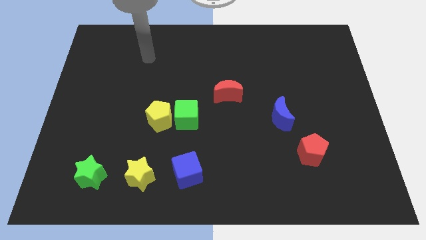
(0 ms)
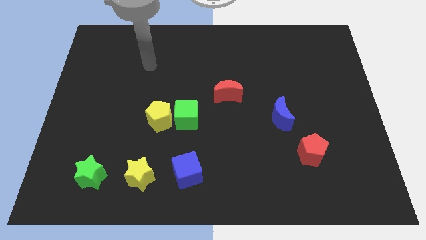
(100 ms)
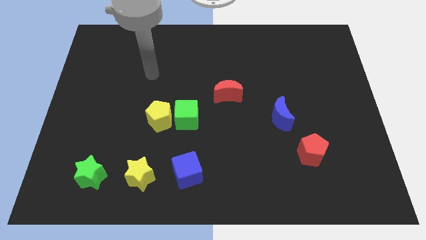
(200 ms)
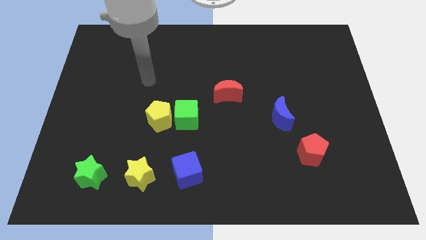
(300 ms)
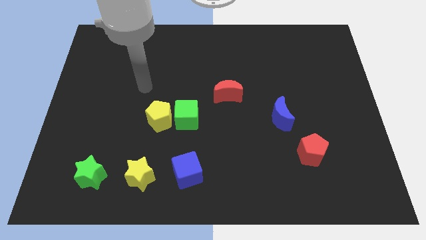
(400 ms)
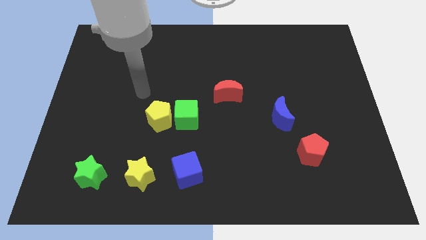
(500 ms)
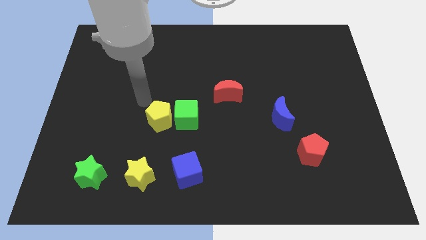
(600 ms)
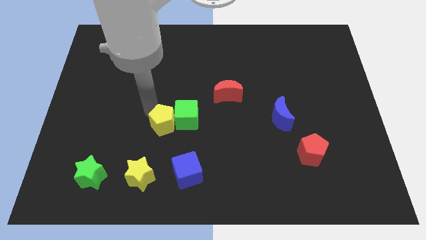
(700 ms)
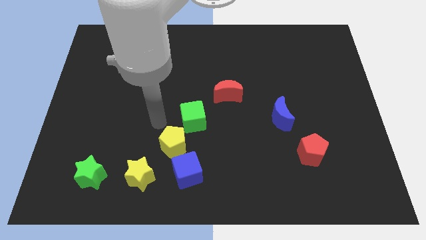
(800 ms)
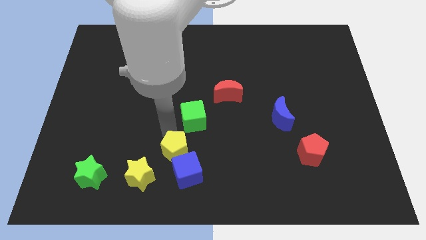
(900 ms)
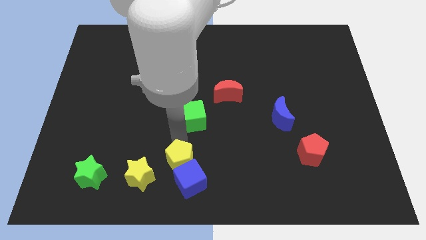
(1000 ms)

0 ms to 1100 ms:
move the green cube away from the yellow pentagon

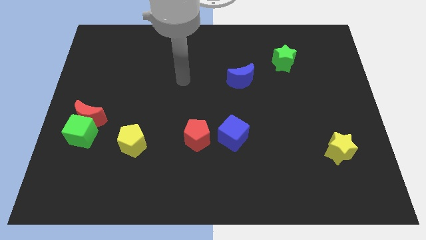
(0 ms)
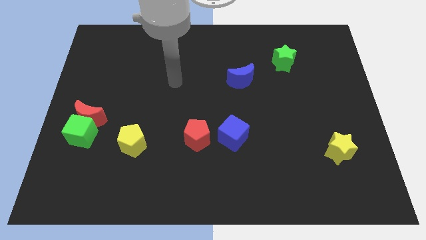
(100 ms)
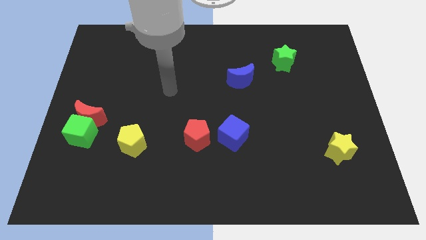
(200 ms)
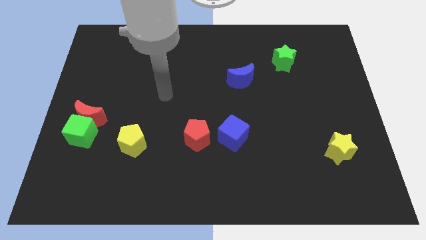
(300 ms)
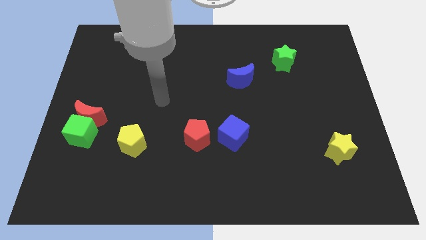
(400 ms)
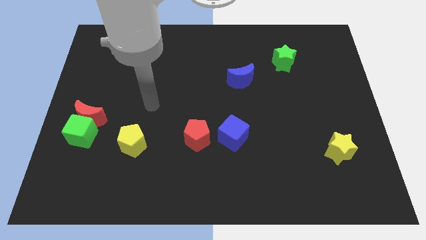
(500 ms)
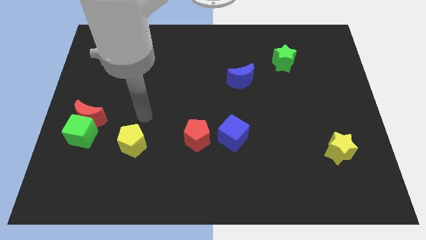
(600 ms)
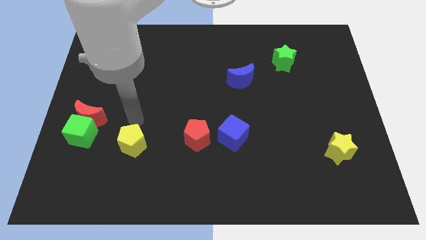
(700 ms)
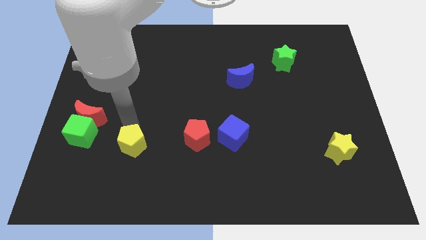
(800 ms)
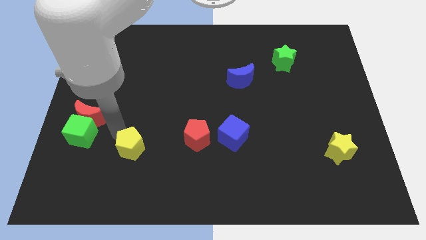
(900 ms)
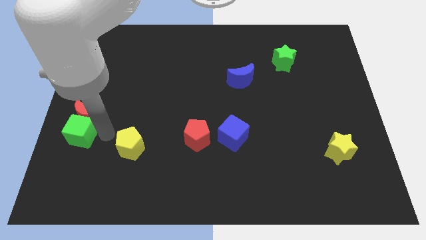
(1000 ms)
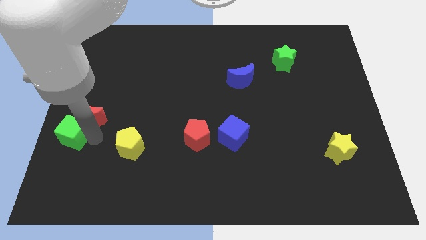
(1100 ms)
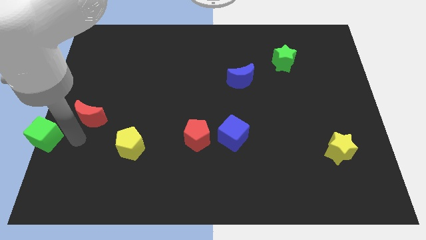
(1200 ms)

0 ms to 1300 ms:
pull the red moon apart from the green cube

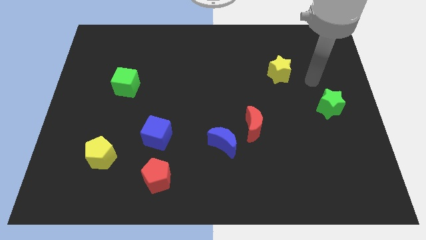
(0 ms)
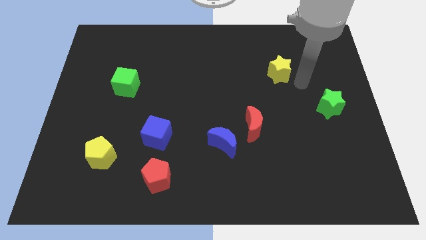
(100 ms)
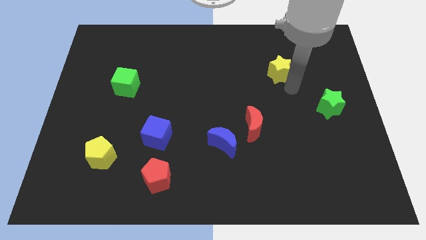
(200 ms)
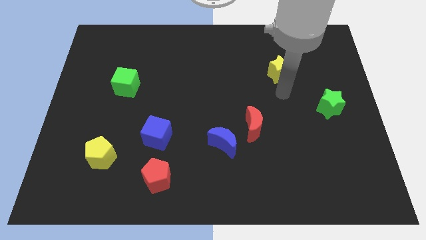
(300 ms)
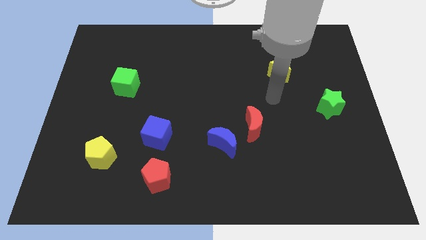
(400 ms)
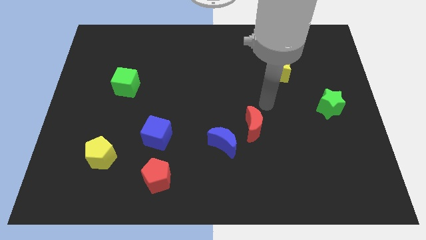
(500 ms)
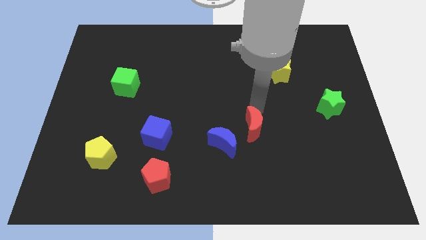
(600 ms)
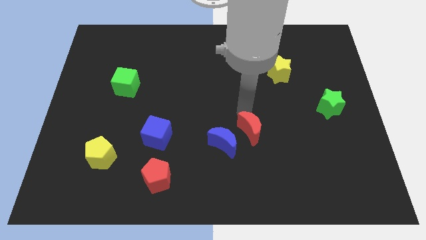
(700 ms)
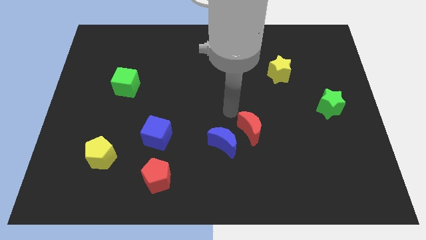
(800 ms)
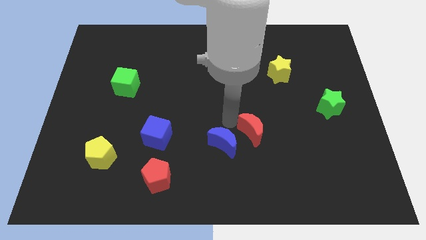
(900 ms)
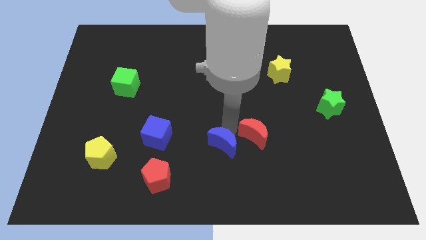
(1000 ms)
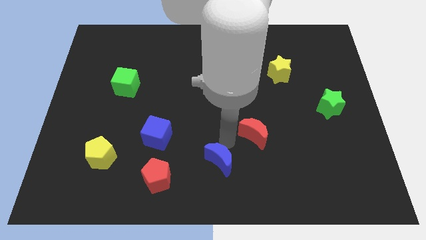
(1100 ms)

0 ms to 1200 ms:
separate the red moon from the blue moon

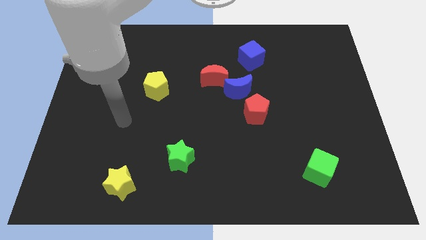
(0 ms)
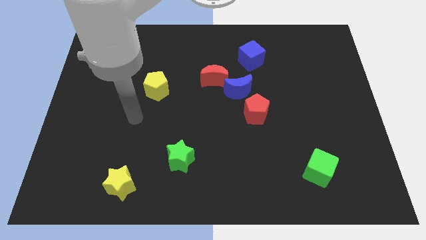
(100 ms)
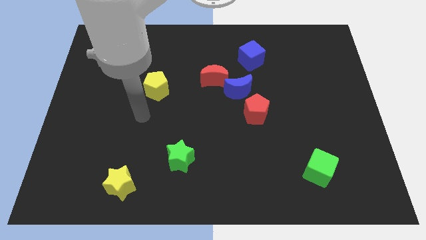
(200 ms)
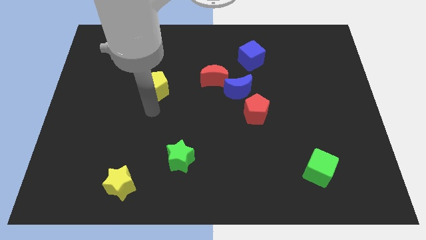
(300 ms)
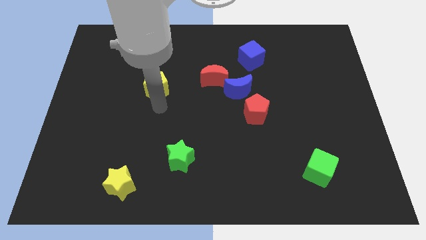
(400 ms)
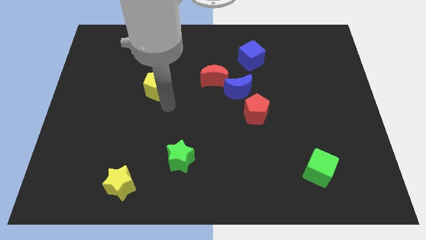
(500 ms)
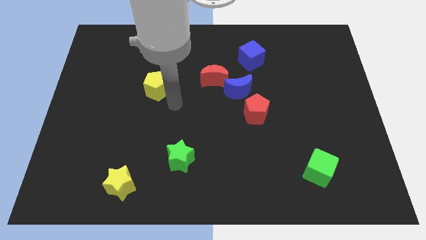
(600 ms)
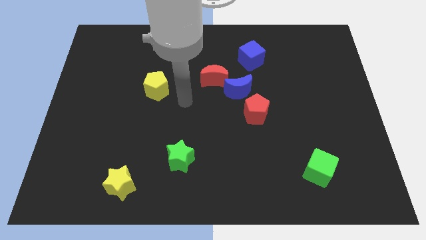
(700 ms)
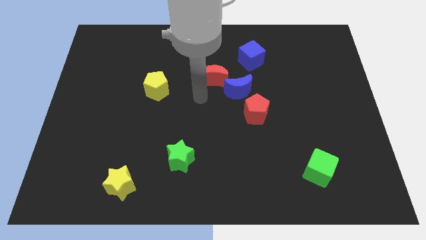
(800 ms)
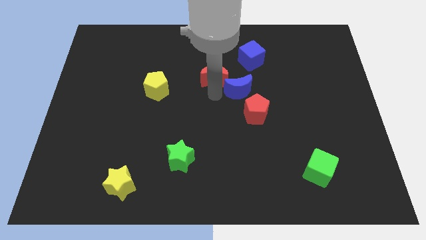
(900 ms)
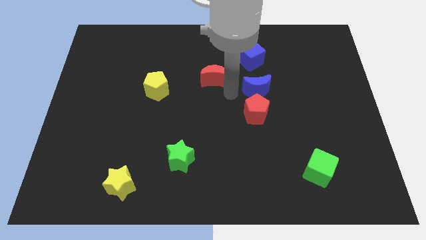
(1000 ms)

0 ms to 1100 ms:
pull the red moon apart from the blue moon

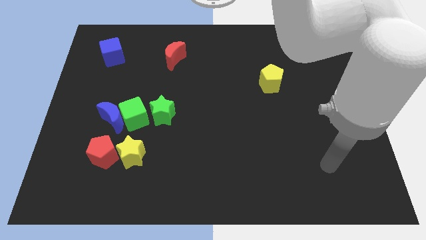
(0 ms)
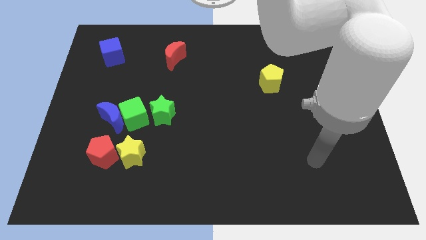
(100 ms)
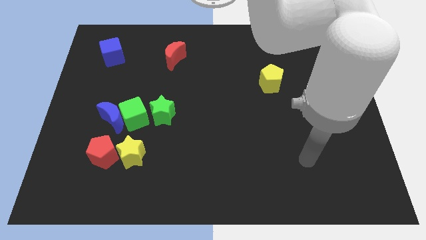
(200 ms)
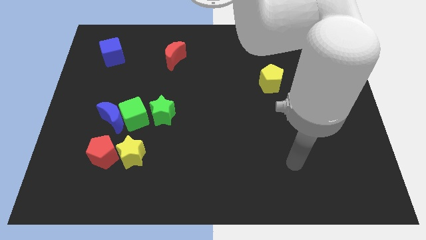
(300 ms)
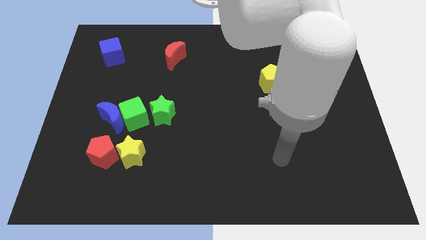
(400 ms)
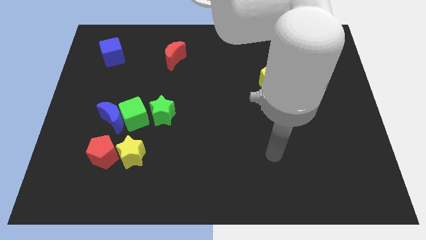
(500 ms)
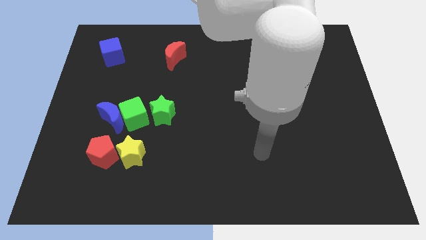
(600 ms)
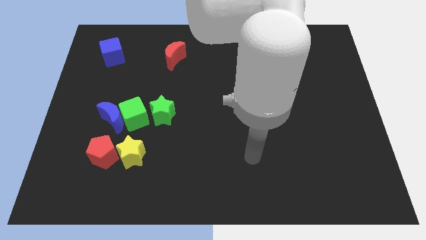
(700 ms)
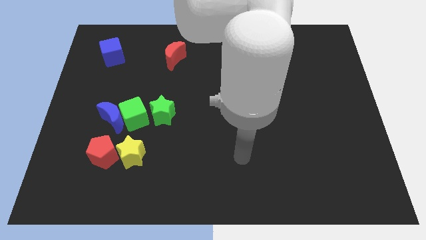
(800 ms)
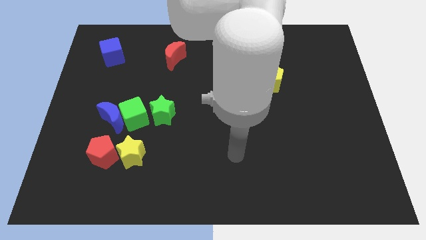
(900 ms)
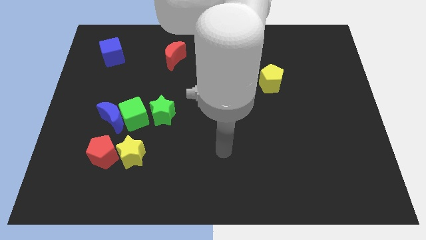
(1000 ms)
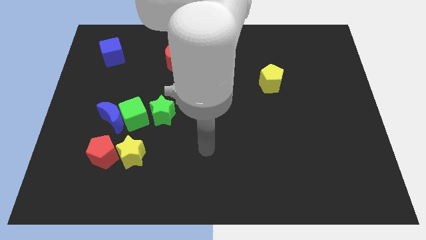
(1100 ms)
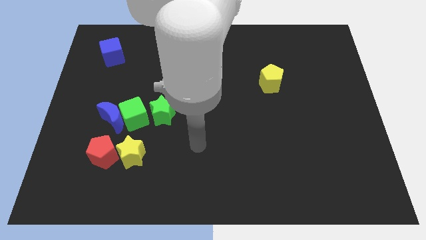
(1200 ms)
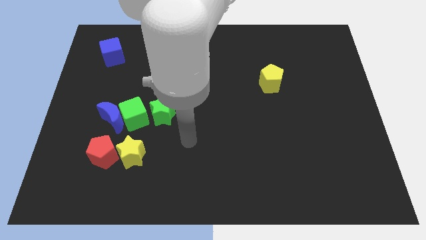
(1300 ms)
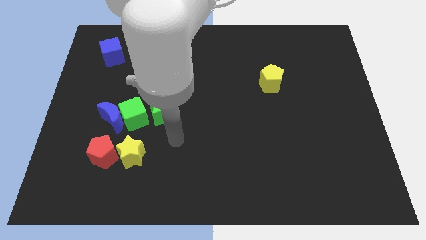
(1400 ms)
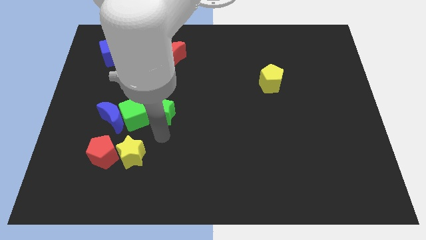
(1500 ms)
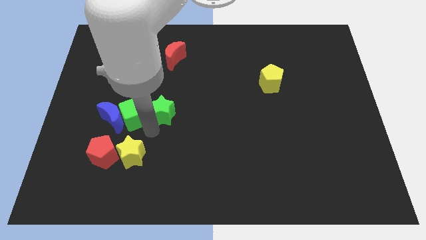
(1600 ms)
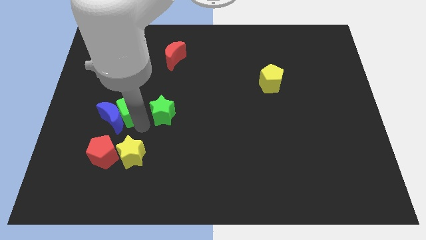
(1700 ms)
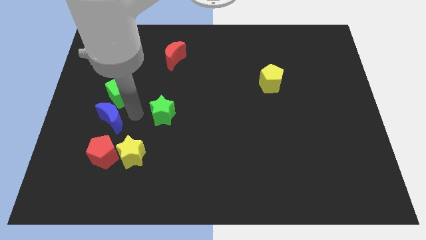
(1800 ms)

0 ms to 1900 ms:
separate the green star from the green cube

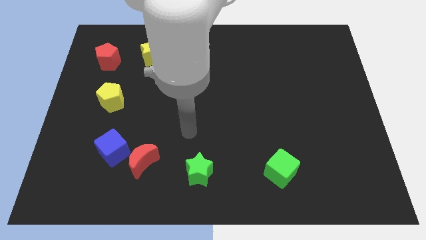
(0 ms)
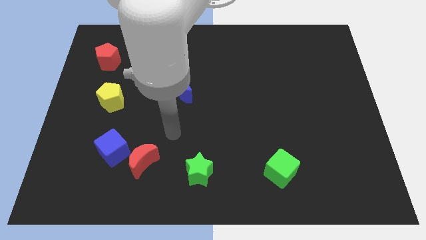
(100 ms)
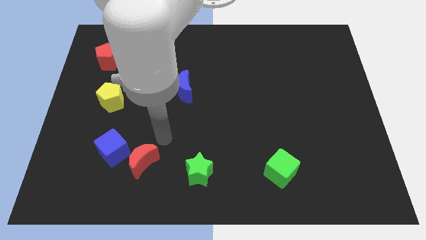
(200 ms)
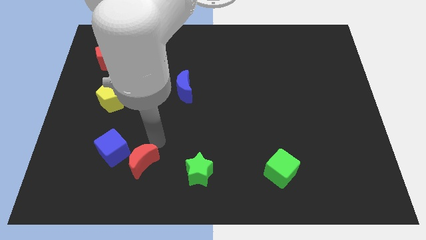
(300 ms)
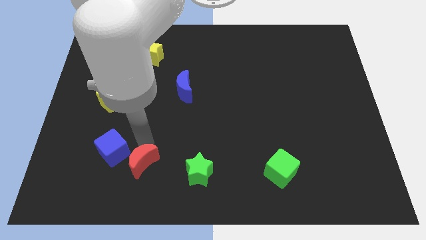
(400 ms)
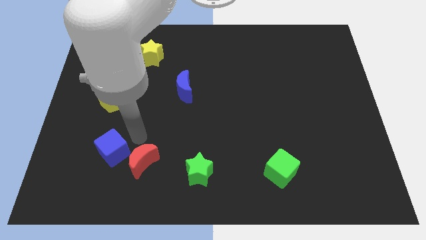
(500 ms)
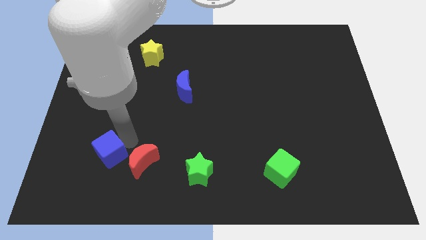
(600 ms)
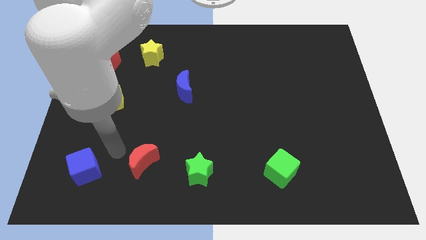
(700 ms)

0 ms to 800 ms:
move the red moon away from the blue cube

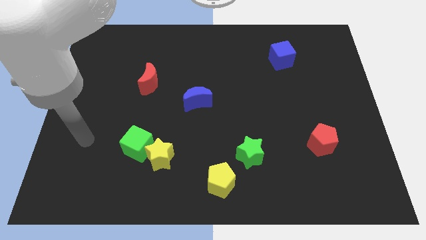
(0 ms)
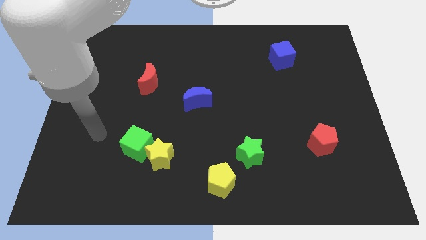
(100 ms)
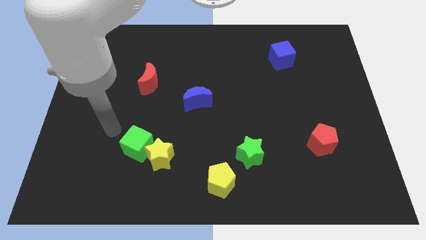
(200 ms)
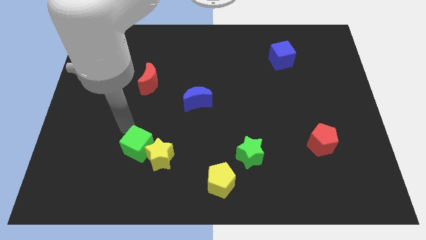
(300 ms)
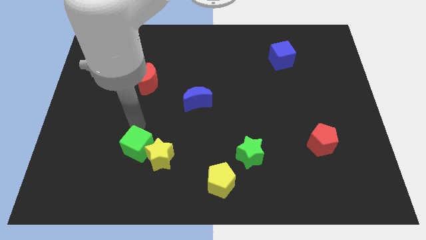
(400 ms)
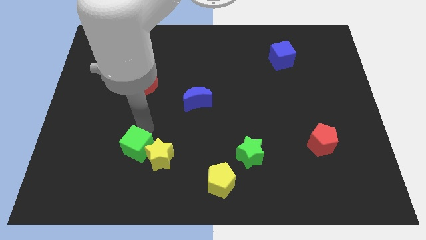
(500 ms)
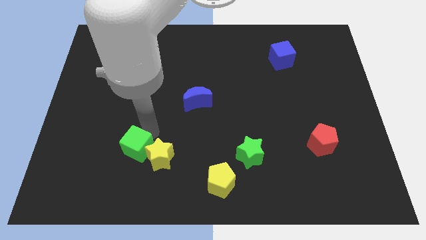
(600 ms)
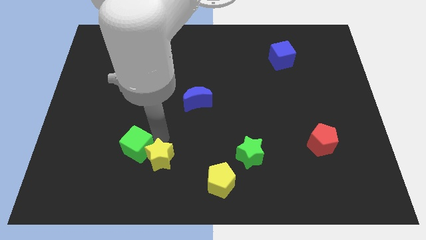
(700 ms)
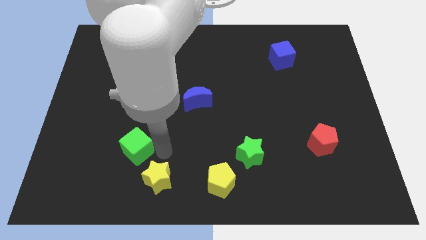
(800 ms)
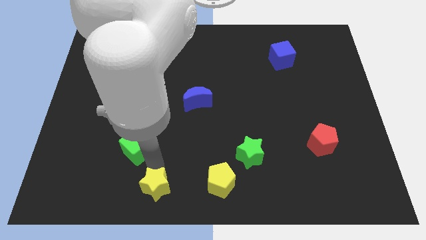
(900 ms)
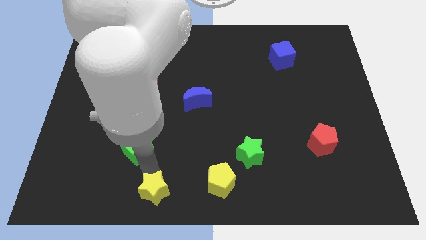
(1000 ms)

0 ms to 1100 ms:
separate the green cube from the yellow star

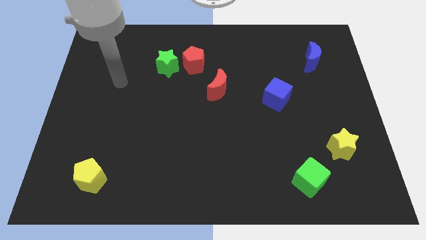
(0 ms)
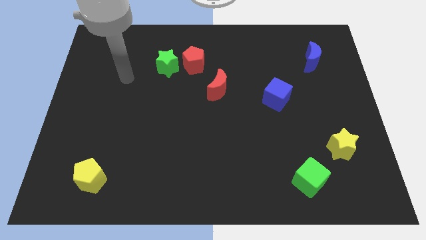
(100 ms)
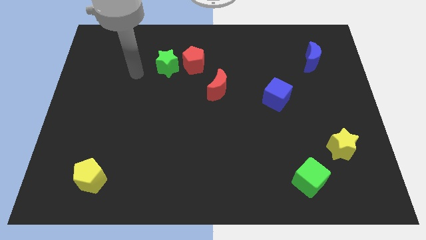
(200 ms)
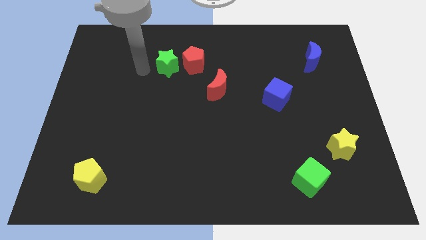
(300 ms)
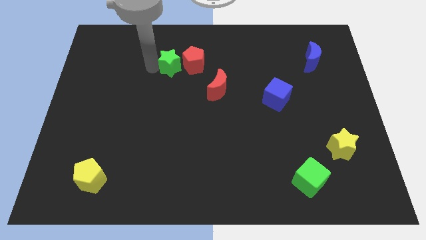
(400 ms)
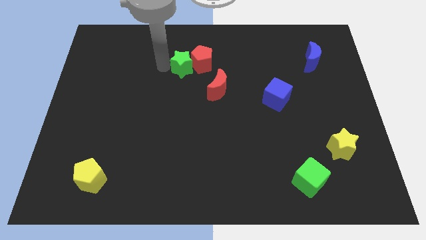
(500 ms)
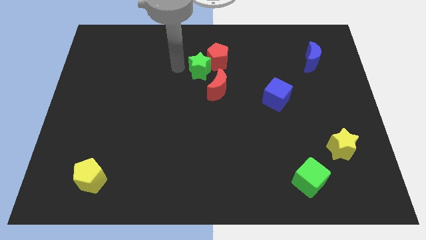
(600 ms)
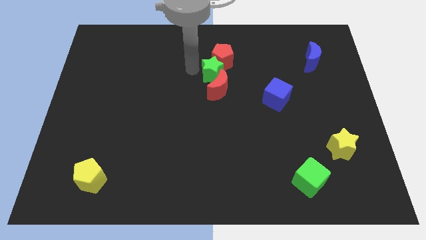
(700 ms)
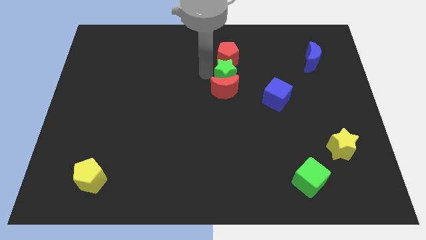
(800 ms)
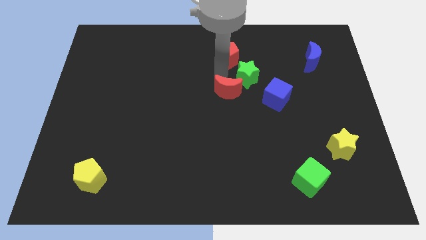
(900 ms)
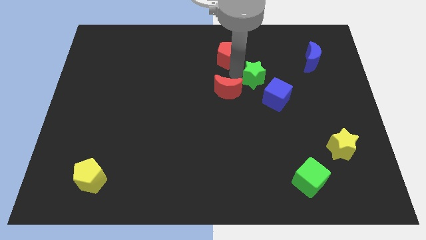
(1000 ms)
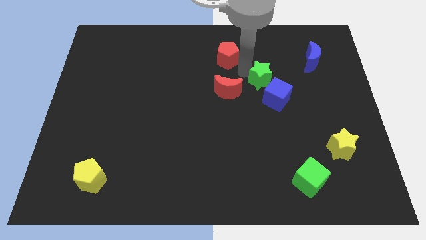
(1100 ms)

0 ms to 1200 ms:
move the red pentagon away from the green star
